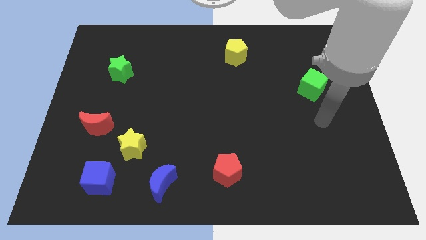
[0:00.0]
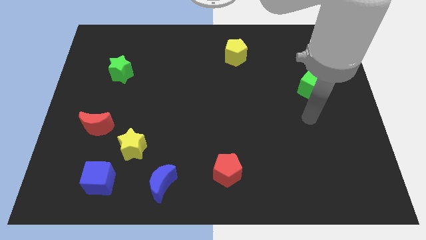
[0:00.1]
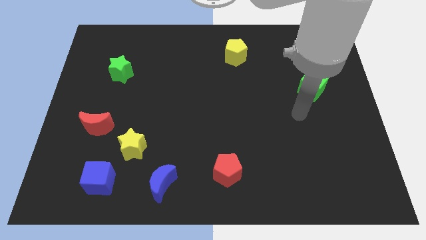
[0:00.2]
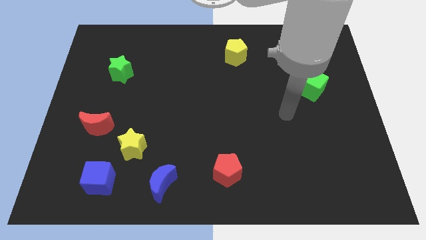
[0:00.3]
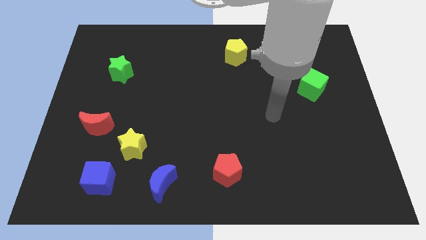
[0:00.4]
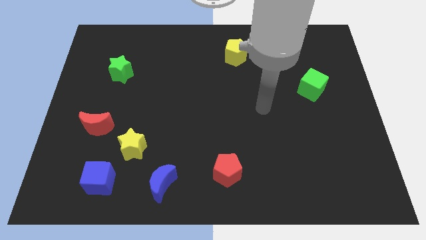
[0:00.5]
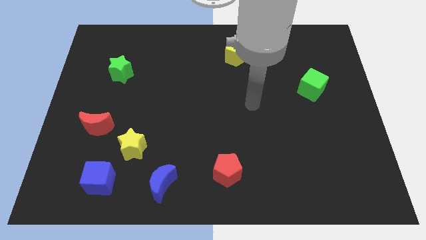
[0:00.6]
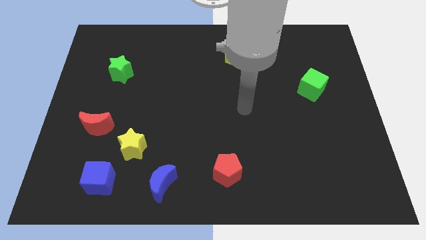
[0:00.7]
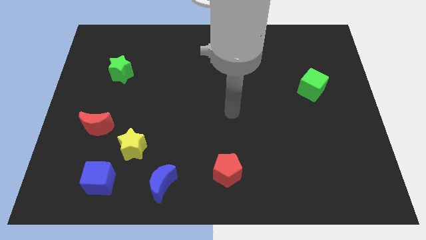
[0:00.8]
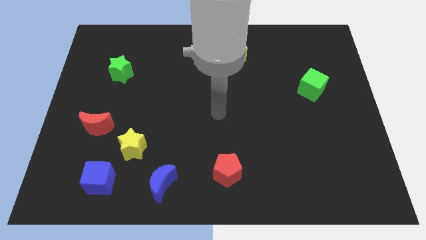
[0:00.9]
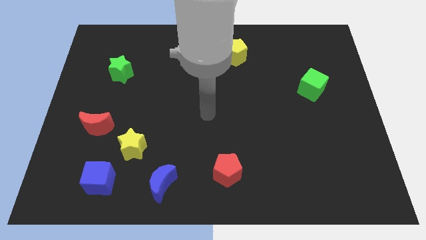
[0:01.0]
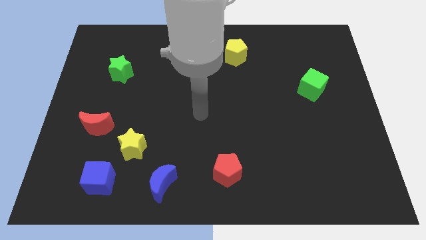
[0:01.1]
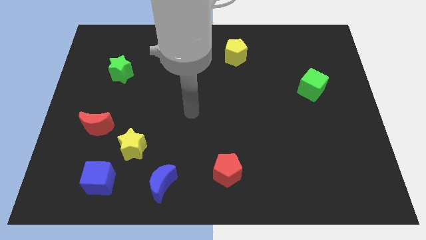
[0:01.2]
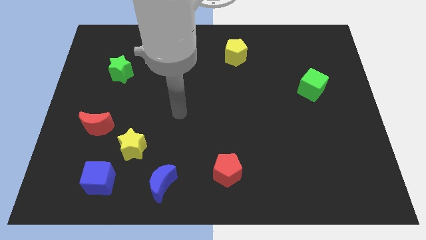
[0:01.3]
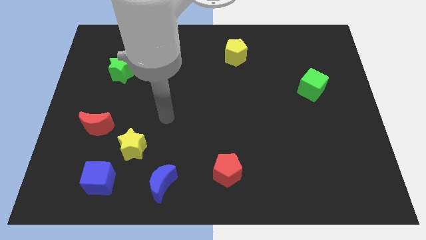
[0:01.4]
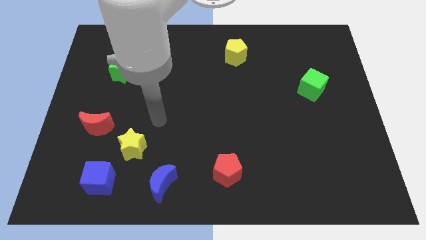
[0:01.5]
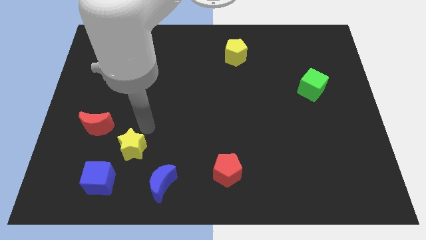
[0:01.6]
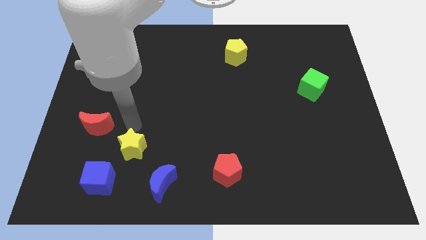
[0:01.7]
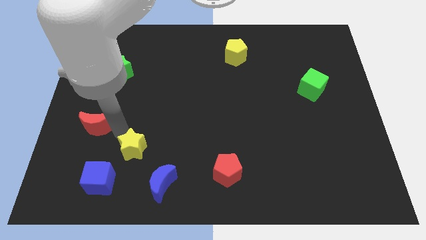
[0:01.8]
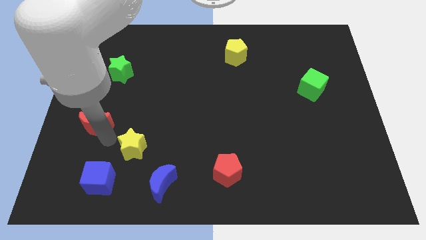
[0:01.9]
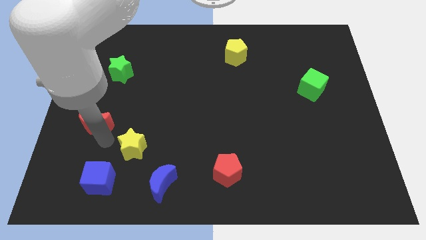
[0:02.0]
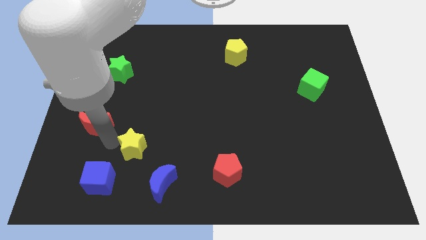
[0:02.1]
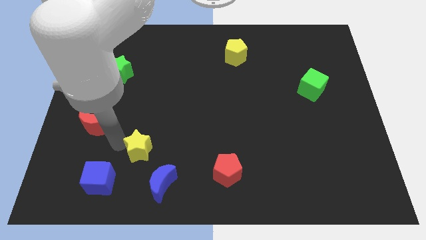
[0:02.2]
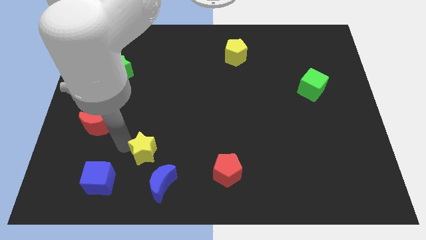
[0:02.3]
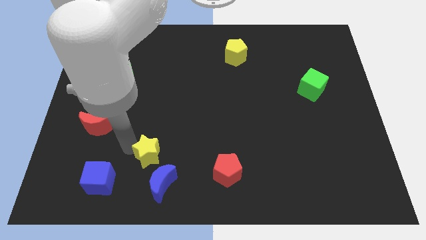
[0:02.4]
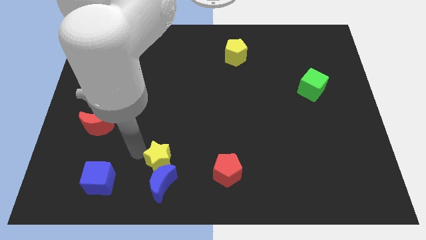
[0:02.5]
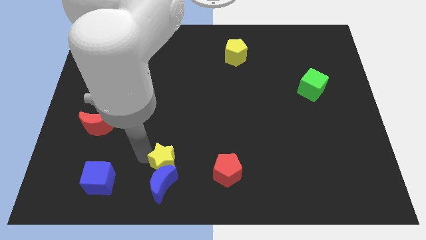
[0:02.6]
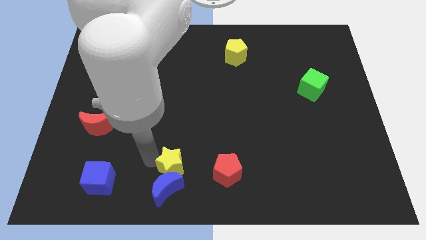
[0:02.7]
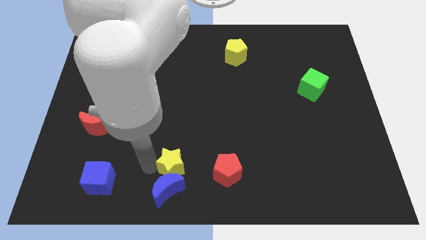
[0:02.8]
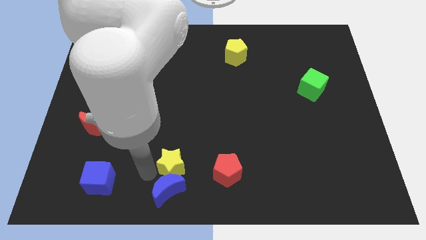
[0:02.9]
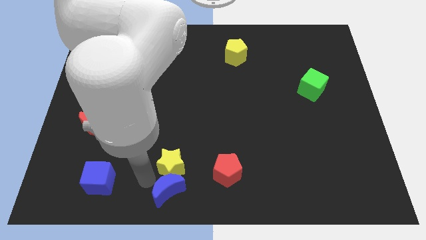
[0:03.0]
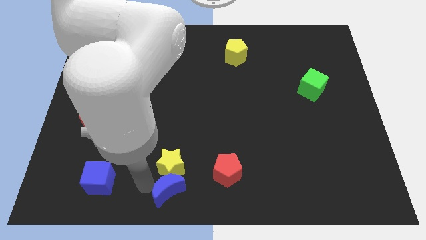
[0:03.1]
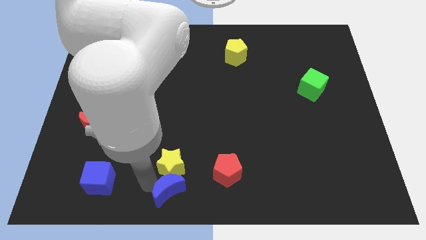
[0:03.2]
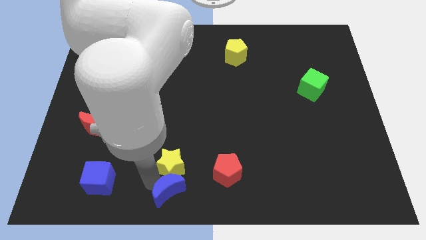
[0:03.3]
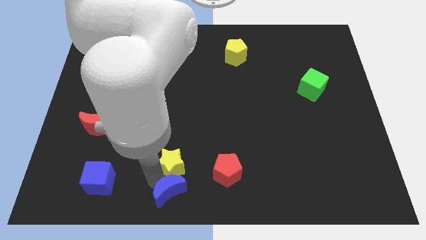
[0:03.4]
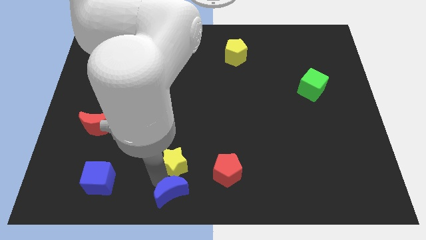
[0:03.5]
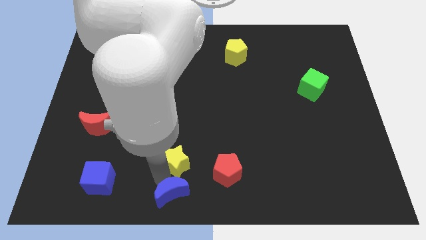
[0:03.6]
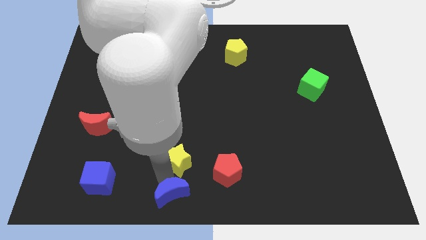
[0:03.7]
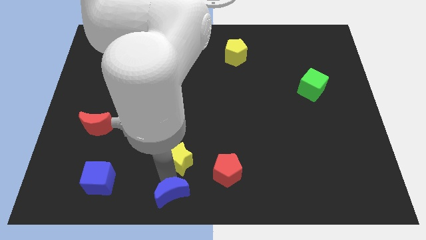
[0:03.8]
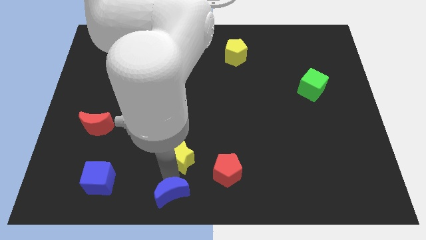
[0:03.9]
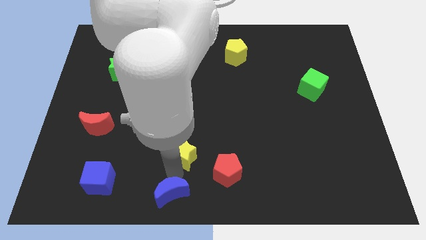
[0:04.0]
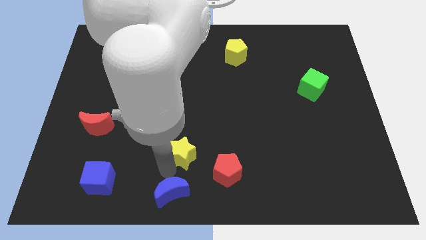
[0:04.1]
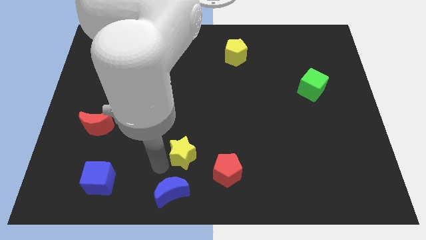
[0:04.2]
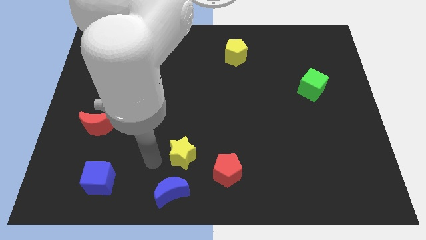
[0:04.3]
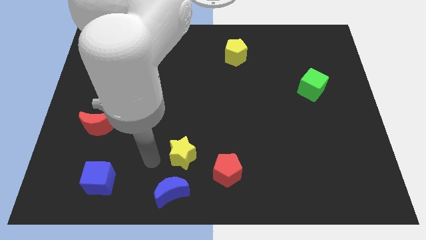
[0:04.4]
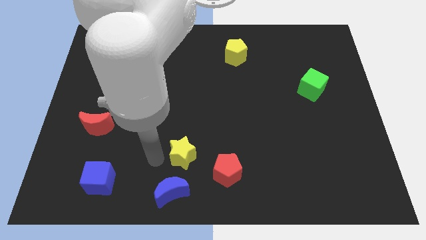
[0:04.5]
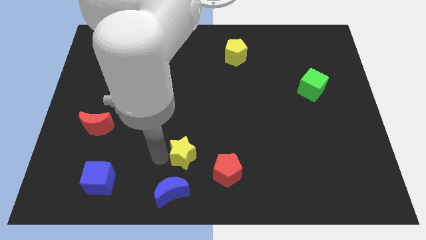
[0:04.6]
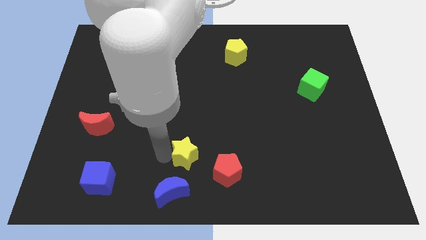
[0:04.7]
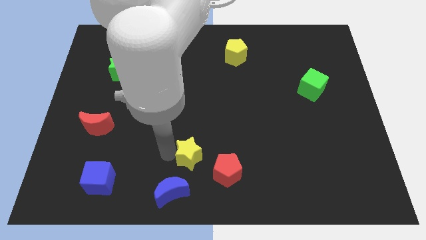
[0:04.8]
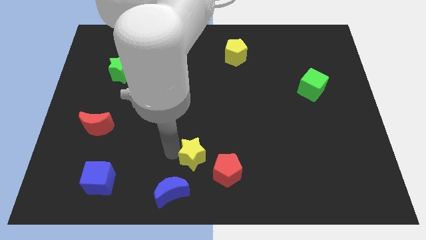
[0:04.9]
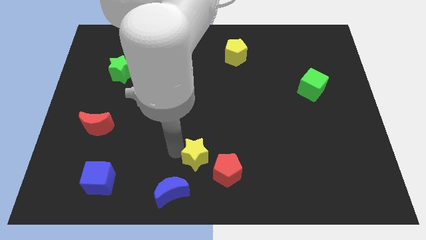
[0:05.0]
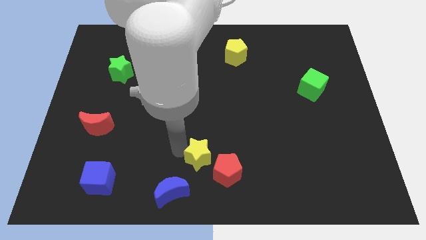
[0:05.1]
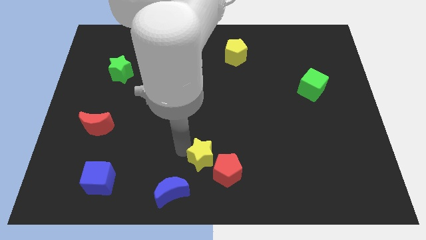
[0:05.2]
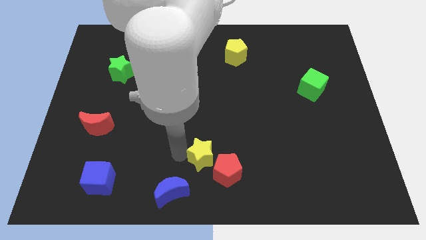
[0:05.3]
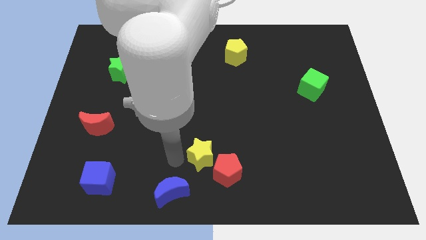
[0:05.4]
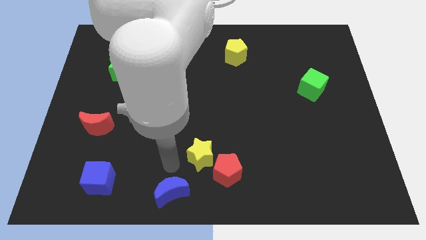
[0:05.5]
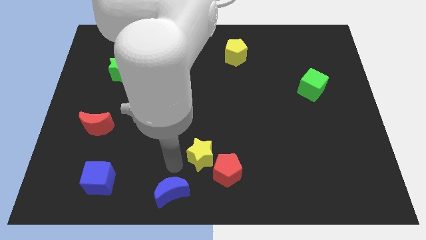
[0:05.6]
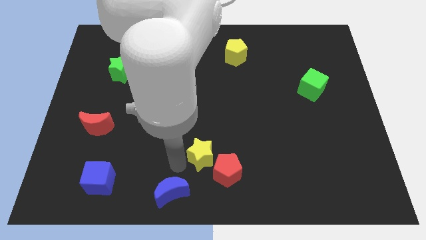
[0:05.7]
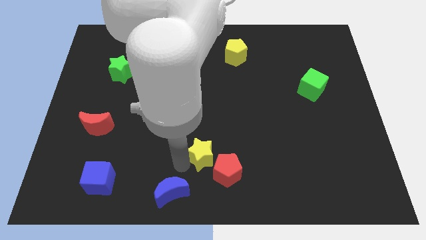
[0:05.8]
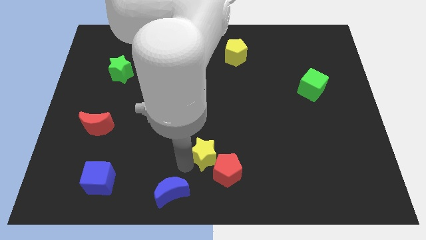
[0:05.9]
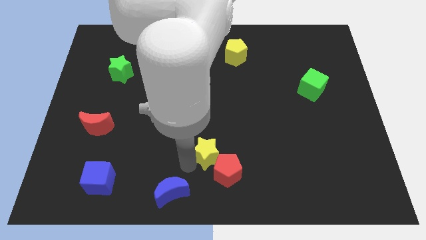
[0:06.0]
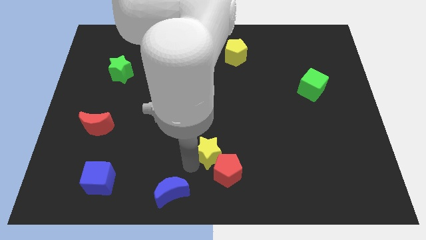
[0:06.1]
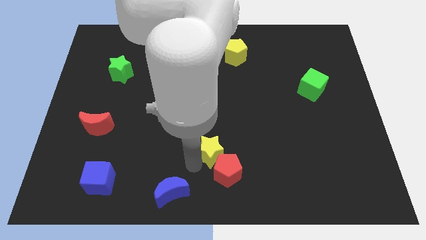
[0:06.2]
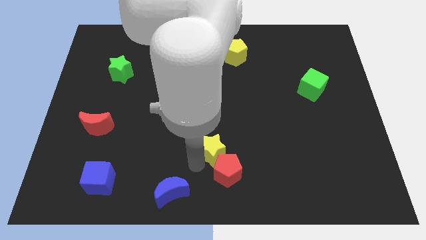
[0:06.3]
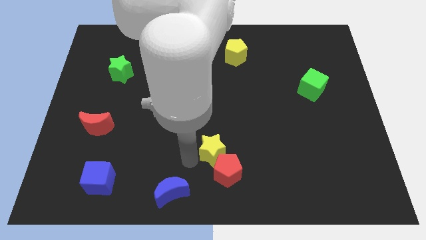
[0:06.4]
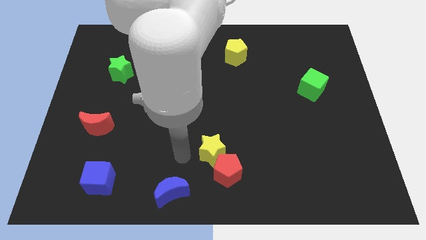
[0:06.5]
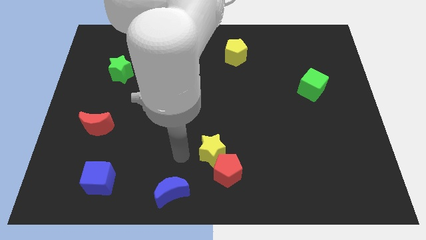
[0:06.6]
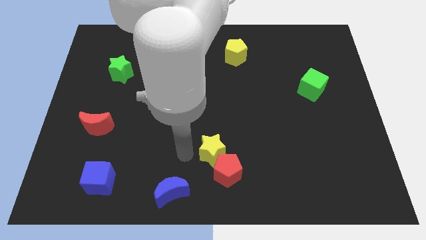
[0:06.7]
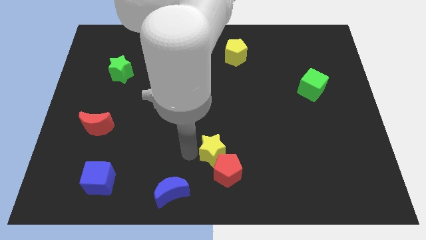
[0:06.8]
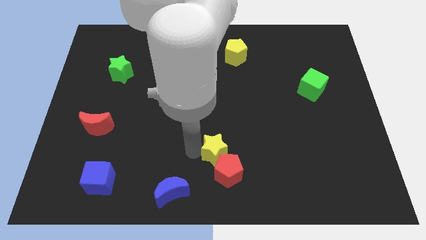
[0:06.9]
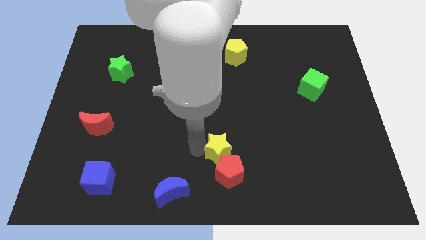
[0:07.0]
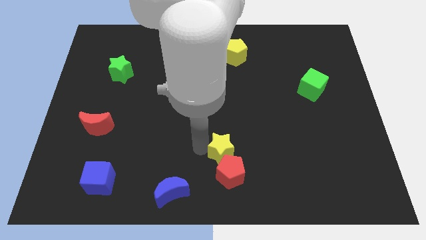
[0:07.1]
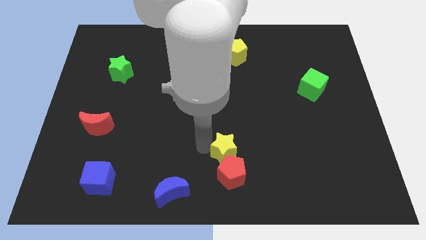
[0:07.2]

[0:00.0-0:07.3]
move the yellow star to the right

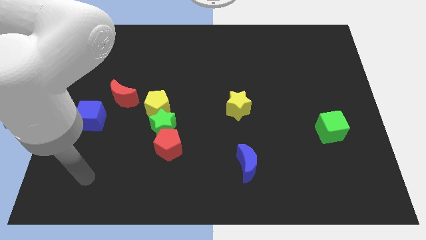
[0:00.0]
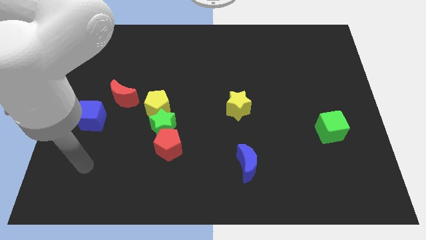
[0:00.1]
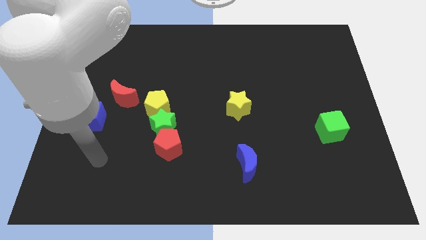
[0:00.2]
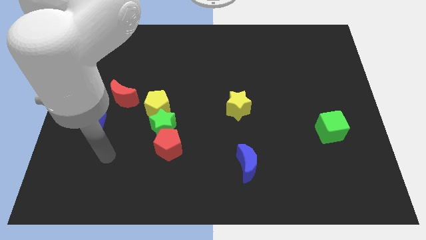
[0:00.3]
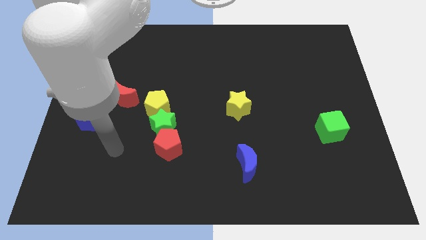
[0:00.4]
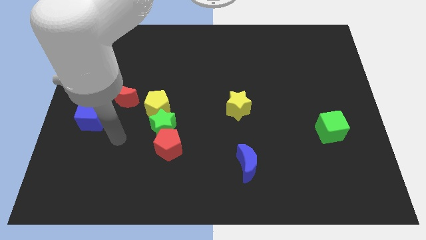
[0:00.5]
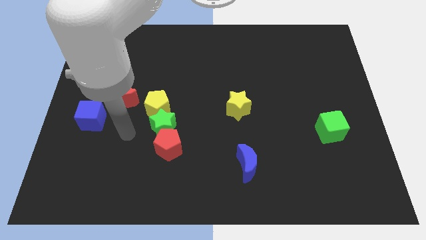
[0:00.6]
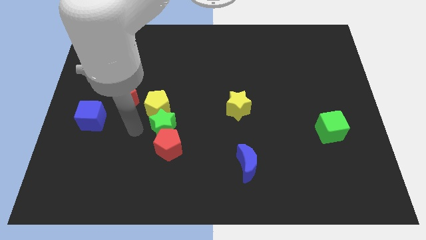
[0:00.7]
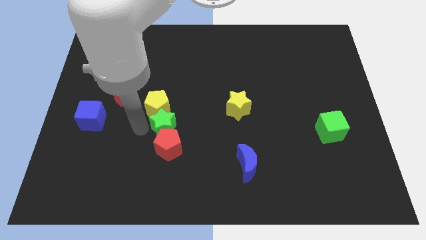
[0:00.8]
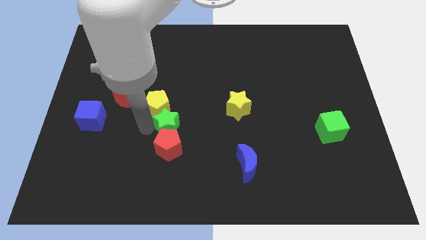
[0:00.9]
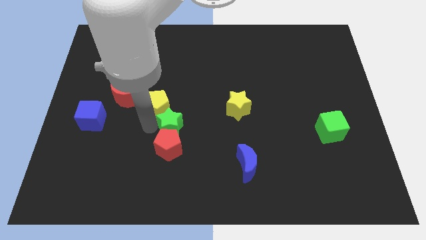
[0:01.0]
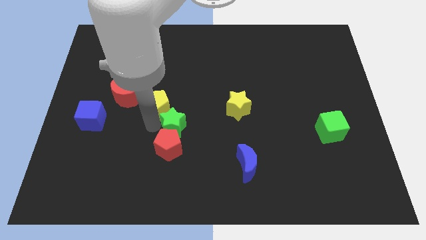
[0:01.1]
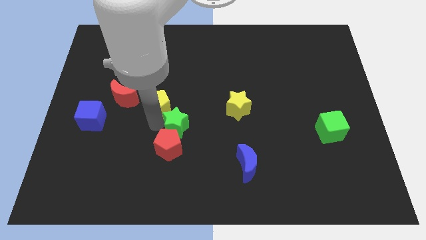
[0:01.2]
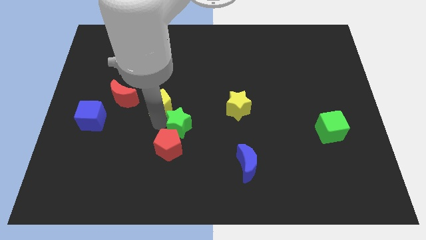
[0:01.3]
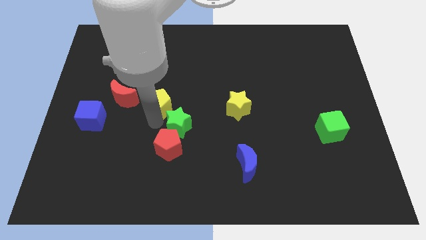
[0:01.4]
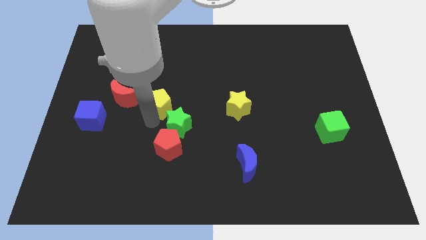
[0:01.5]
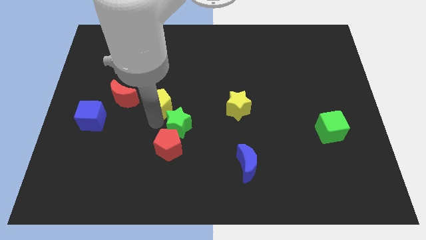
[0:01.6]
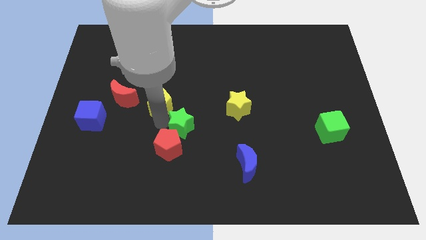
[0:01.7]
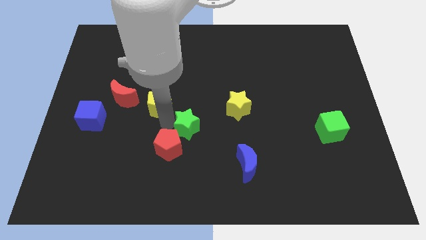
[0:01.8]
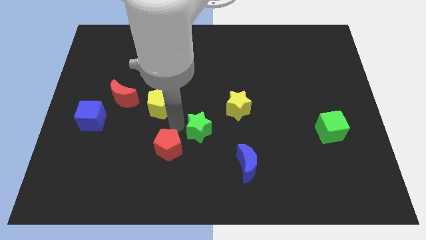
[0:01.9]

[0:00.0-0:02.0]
slightly push the green star right
